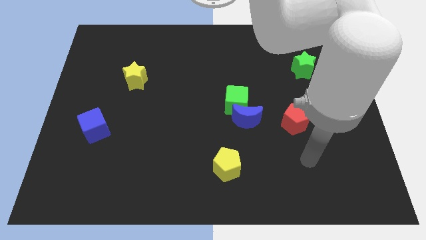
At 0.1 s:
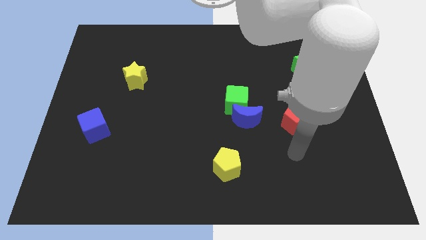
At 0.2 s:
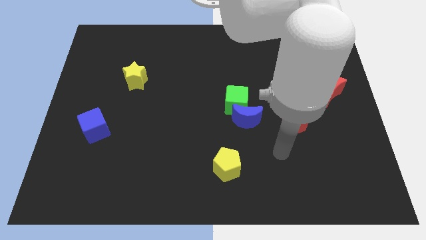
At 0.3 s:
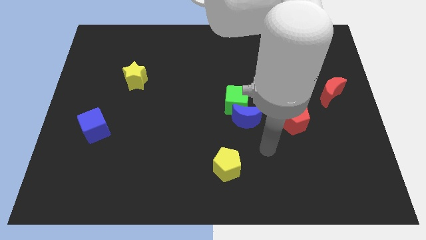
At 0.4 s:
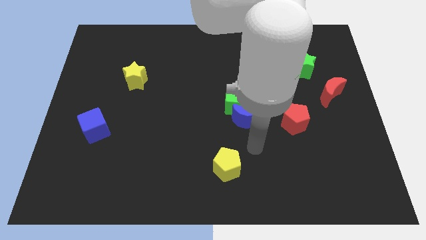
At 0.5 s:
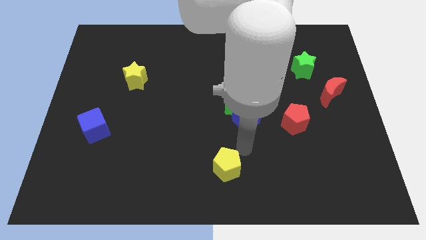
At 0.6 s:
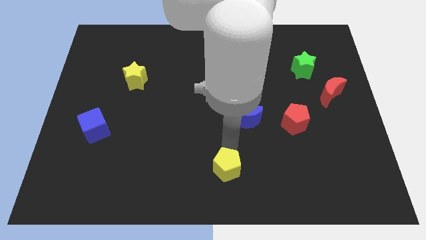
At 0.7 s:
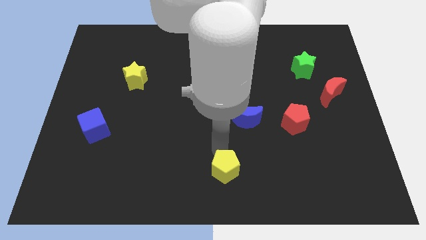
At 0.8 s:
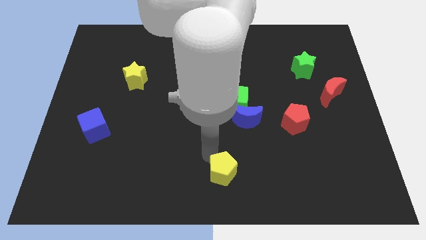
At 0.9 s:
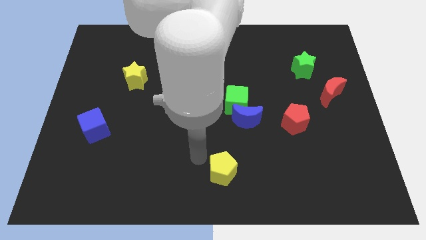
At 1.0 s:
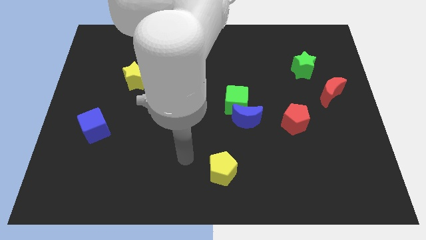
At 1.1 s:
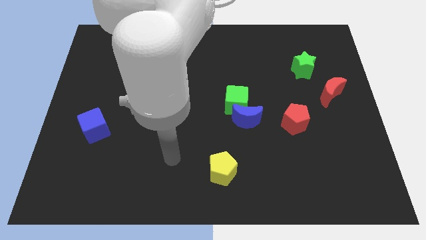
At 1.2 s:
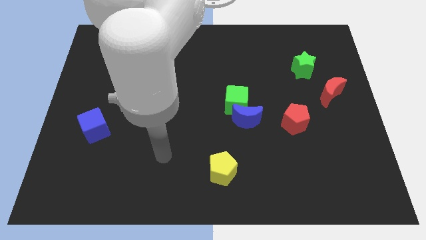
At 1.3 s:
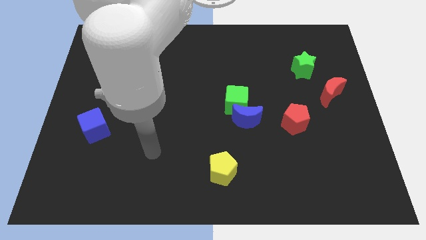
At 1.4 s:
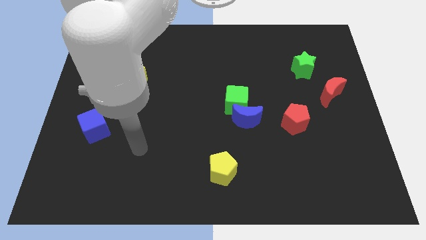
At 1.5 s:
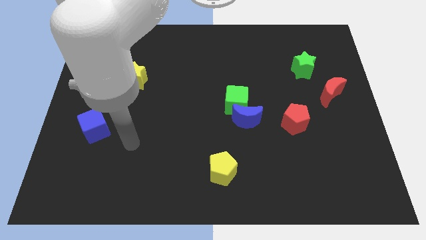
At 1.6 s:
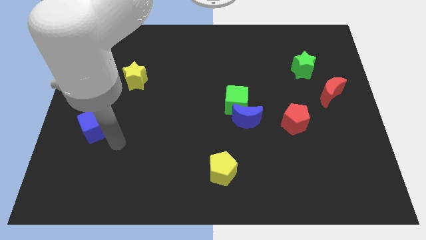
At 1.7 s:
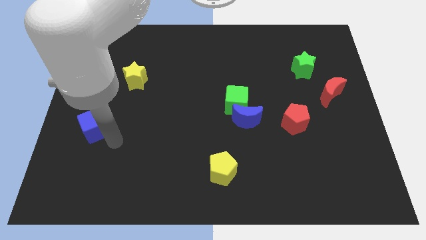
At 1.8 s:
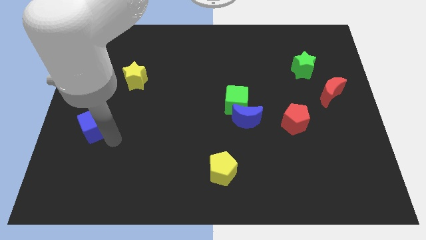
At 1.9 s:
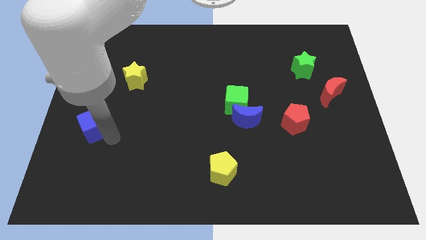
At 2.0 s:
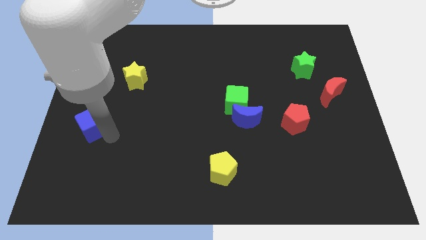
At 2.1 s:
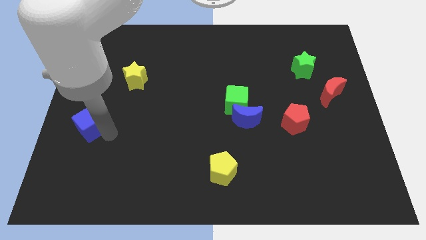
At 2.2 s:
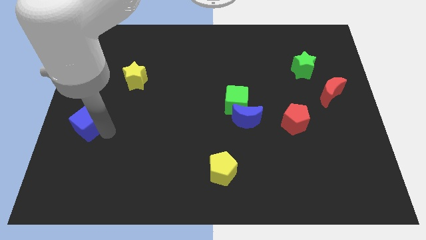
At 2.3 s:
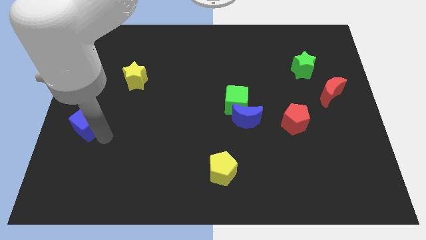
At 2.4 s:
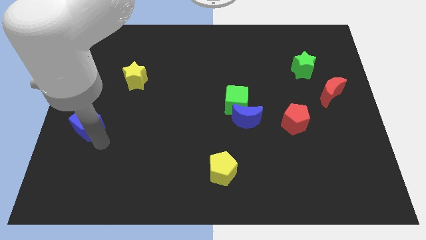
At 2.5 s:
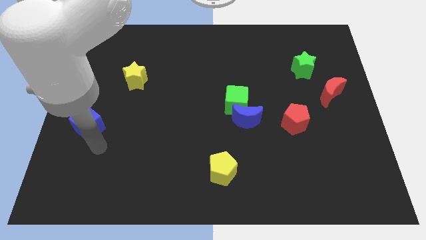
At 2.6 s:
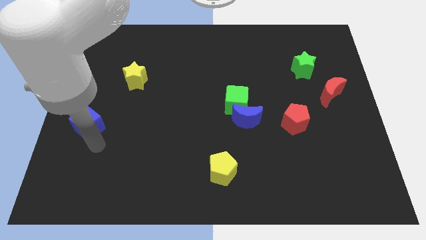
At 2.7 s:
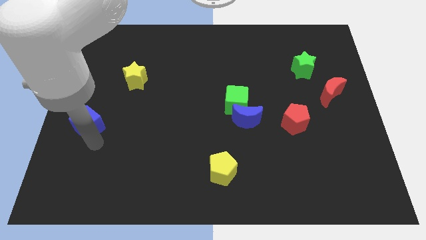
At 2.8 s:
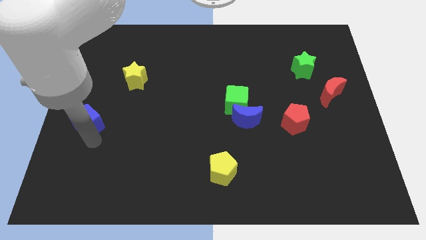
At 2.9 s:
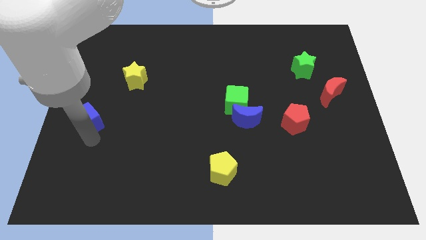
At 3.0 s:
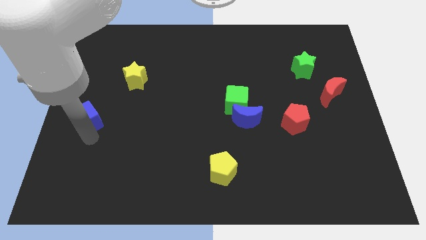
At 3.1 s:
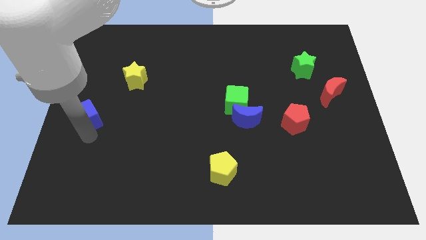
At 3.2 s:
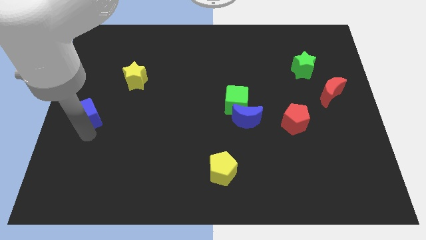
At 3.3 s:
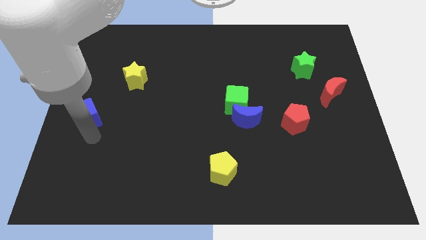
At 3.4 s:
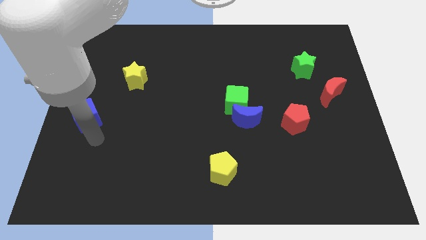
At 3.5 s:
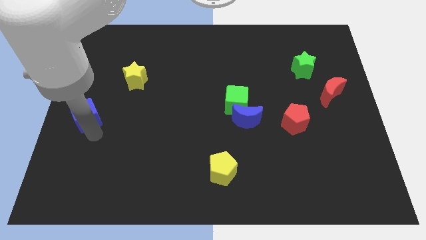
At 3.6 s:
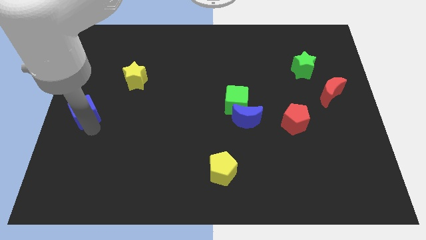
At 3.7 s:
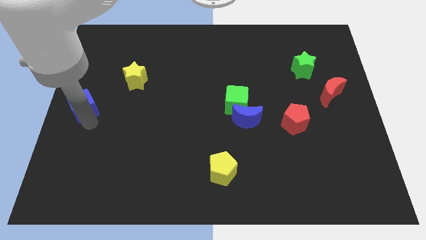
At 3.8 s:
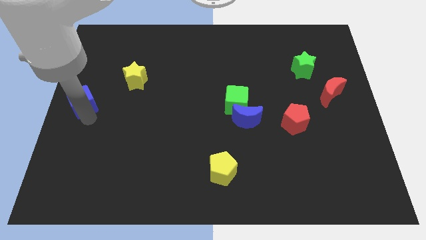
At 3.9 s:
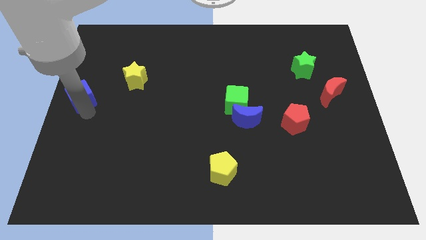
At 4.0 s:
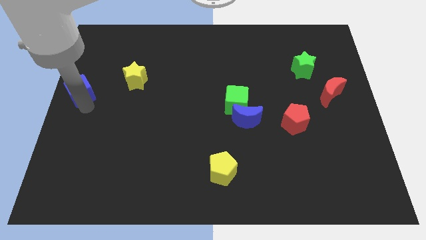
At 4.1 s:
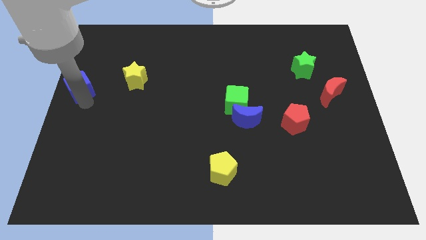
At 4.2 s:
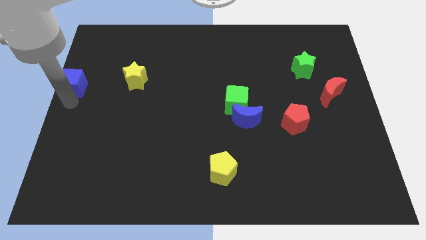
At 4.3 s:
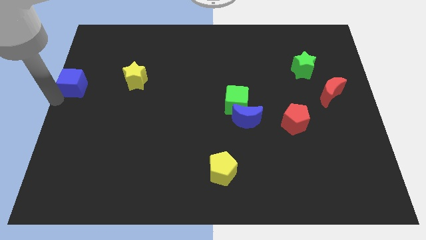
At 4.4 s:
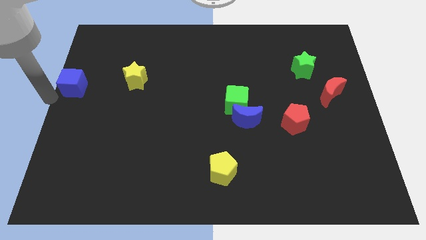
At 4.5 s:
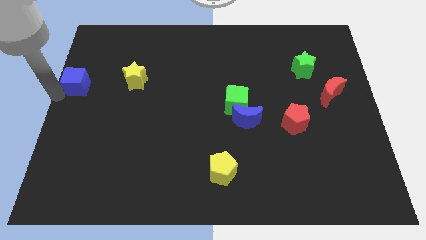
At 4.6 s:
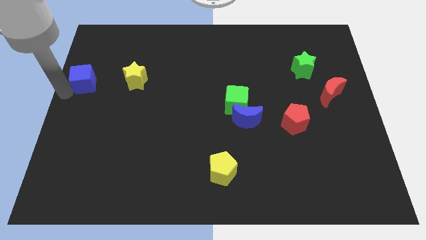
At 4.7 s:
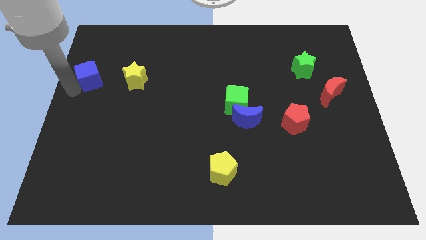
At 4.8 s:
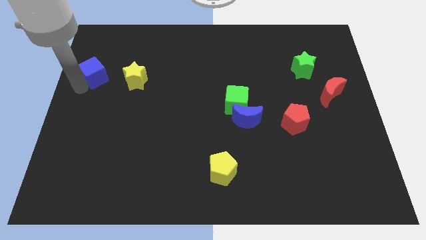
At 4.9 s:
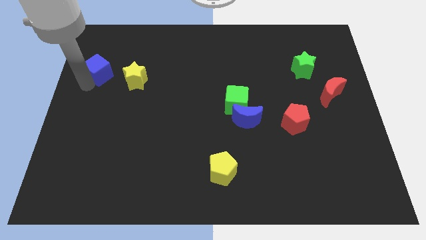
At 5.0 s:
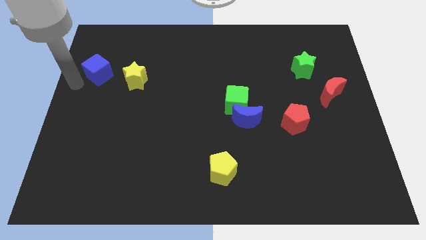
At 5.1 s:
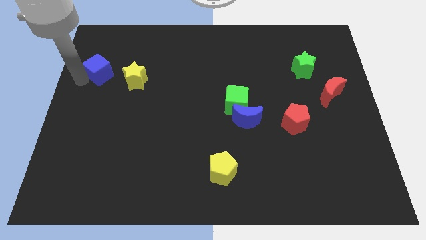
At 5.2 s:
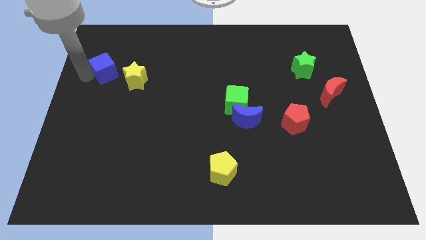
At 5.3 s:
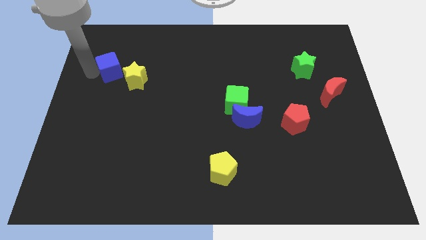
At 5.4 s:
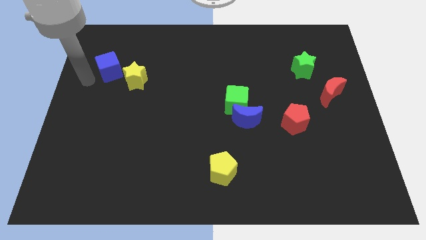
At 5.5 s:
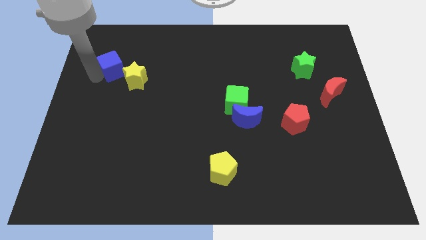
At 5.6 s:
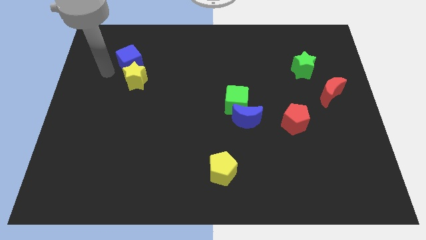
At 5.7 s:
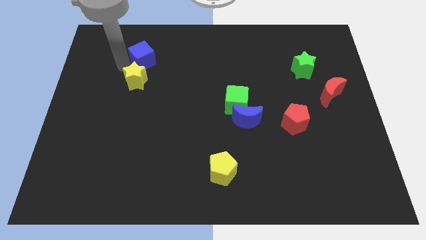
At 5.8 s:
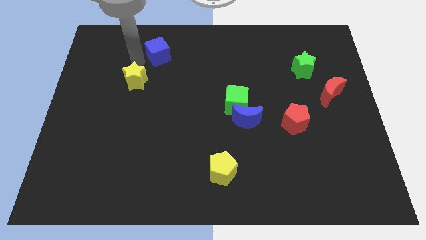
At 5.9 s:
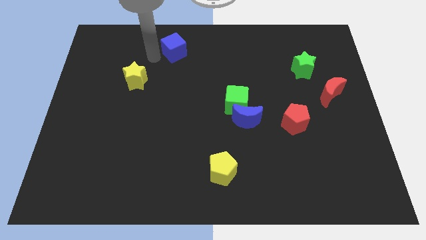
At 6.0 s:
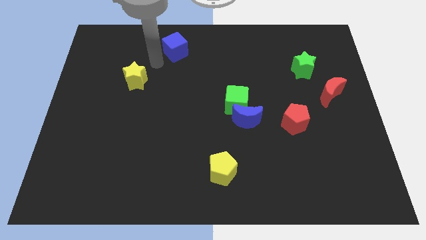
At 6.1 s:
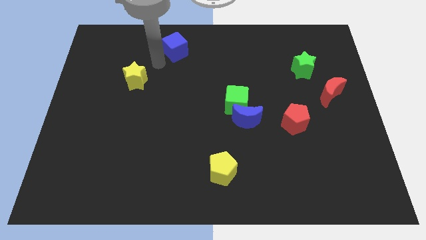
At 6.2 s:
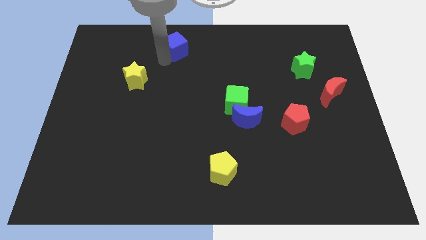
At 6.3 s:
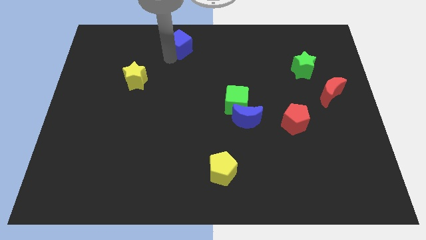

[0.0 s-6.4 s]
move the blue cube to the towards your base
